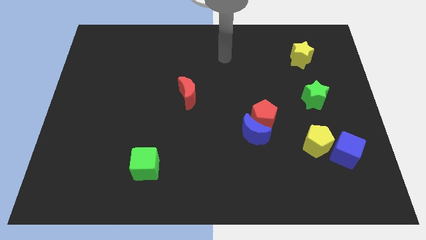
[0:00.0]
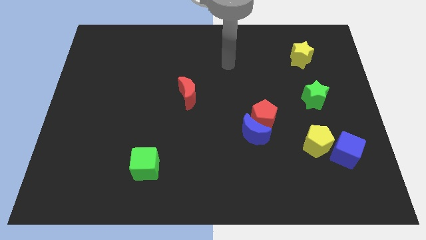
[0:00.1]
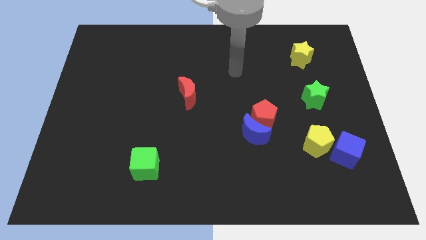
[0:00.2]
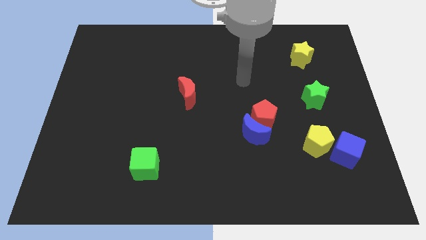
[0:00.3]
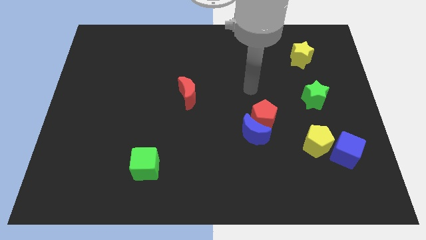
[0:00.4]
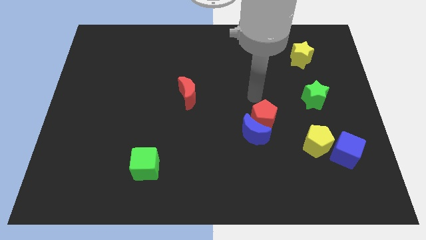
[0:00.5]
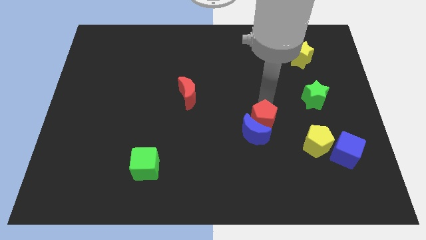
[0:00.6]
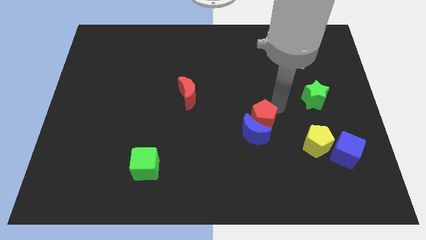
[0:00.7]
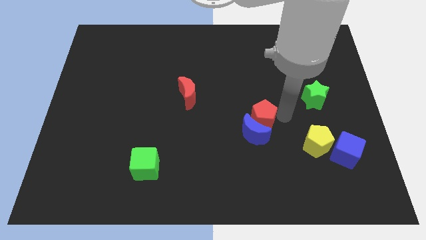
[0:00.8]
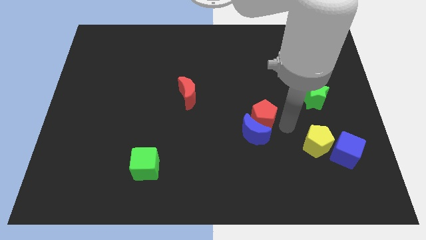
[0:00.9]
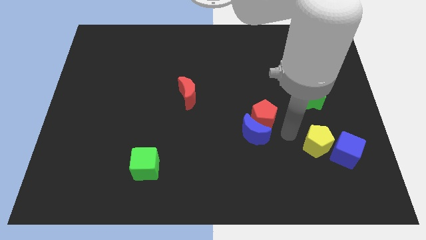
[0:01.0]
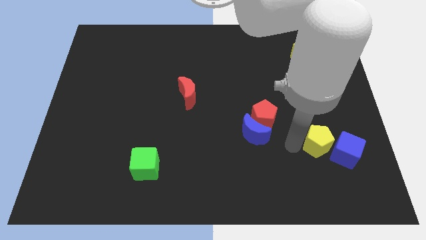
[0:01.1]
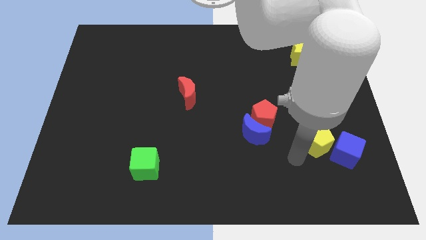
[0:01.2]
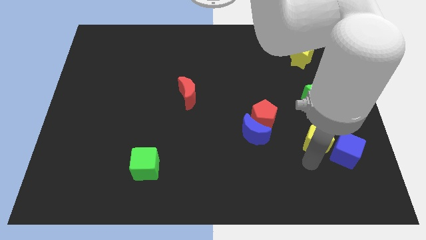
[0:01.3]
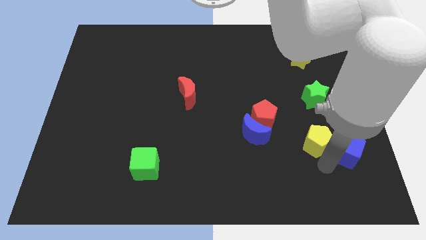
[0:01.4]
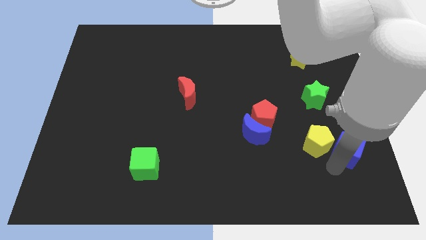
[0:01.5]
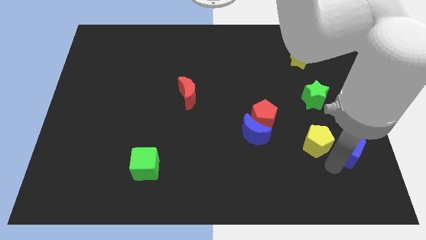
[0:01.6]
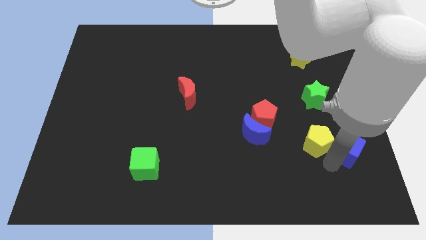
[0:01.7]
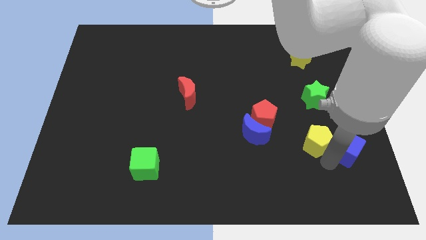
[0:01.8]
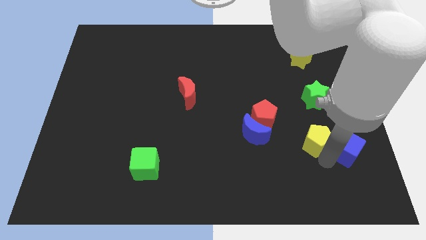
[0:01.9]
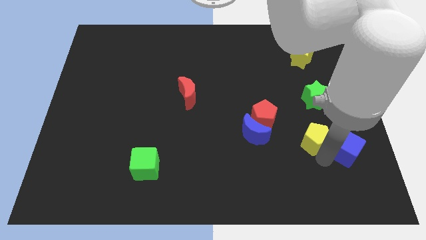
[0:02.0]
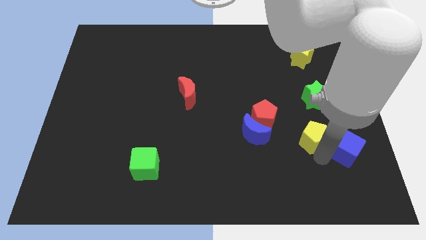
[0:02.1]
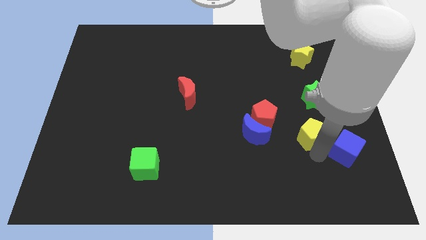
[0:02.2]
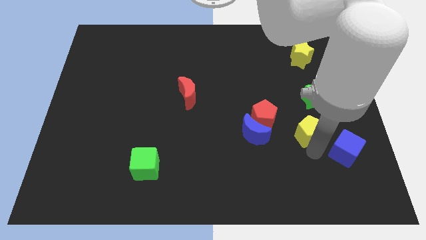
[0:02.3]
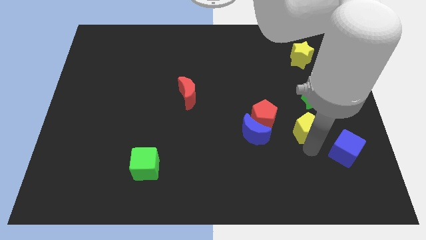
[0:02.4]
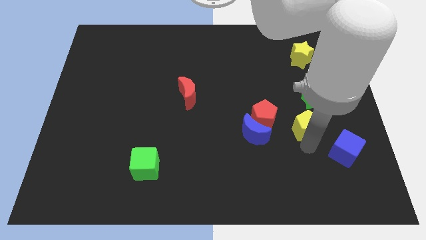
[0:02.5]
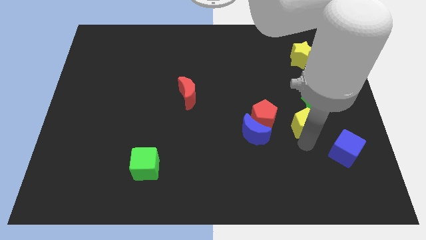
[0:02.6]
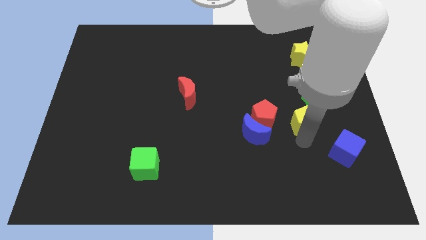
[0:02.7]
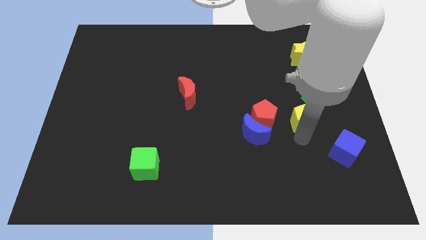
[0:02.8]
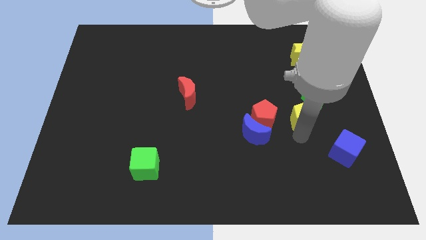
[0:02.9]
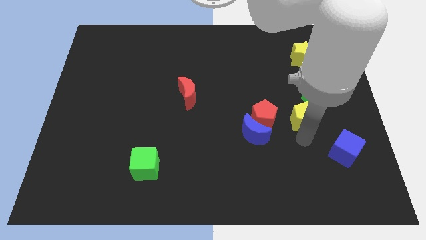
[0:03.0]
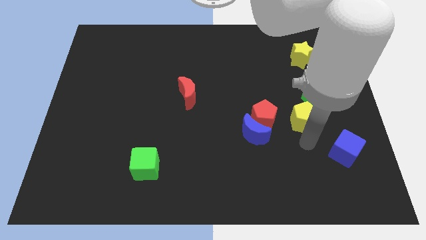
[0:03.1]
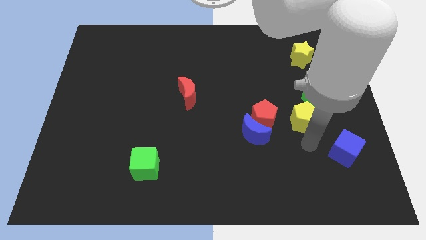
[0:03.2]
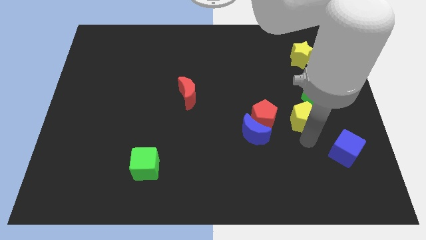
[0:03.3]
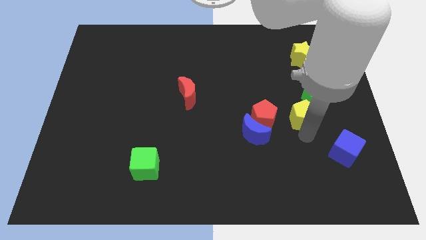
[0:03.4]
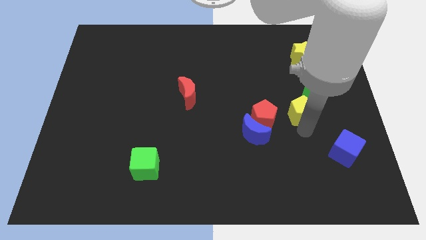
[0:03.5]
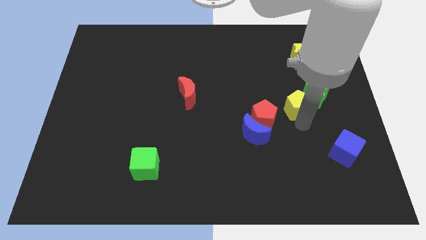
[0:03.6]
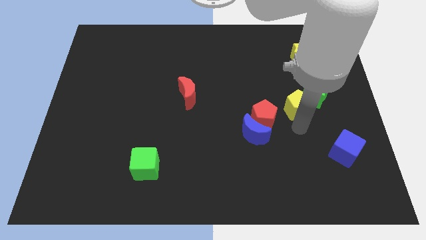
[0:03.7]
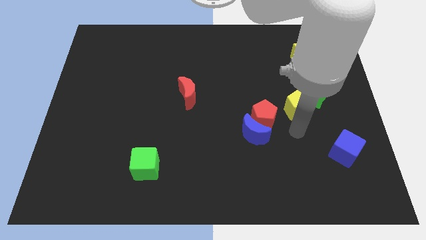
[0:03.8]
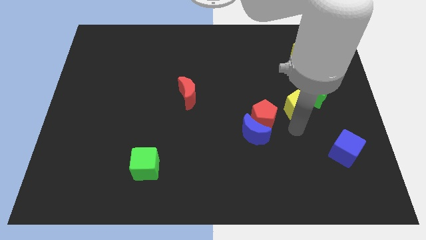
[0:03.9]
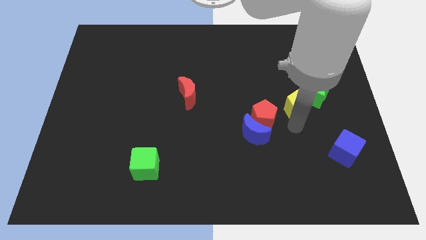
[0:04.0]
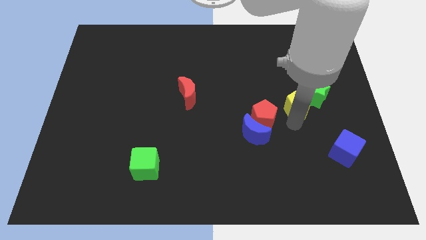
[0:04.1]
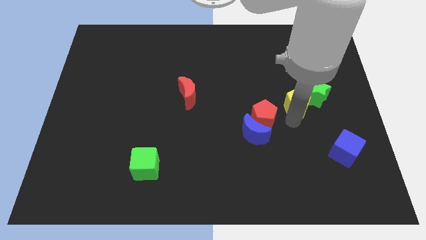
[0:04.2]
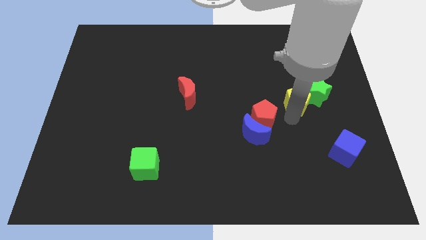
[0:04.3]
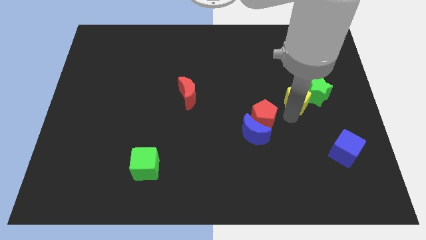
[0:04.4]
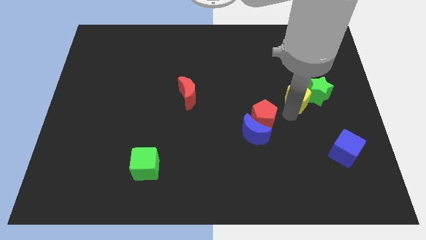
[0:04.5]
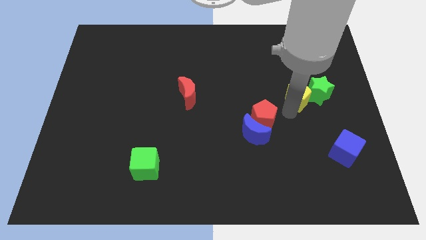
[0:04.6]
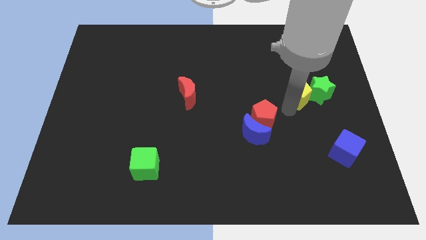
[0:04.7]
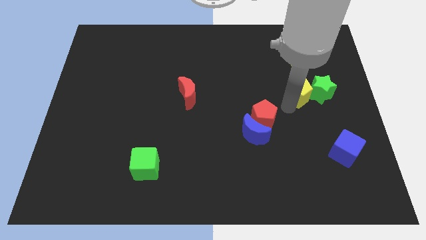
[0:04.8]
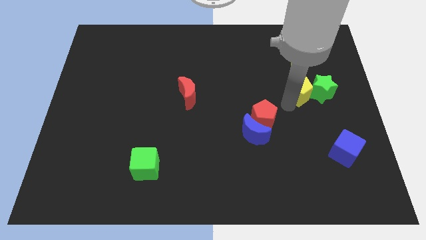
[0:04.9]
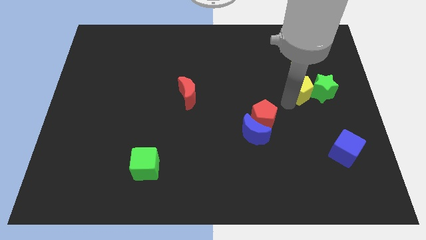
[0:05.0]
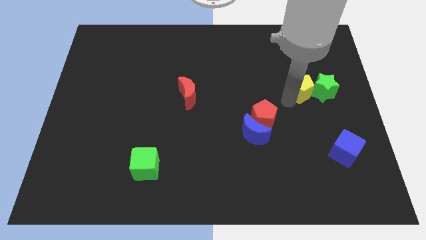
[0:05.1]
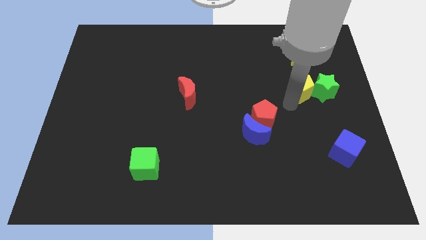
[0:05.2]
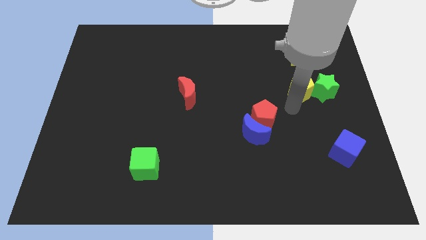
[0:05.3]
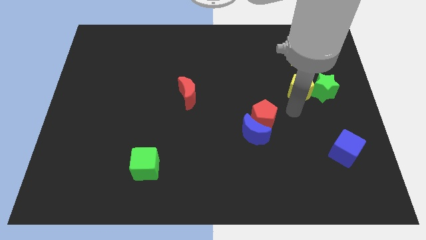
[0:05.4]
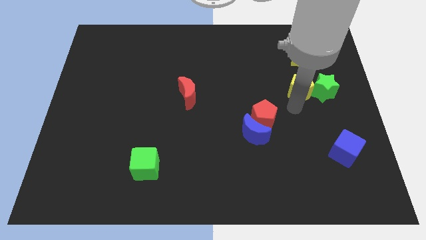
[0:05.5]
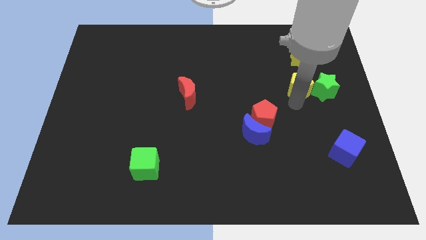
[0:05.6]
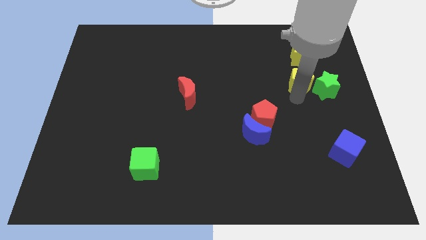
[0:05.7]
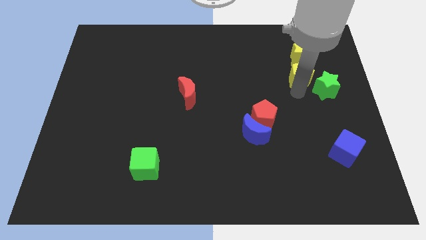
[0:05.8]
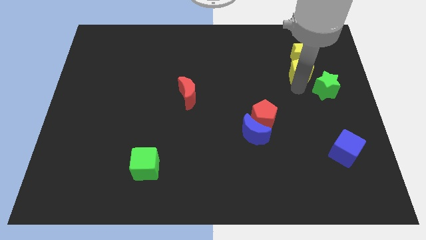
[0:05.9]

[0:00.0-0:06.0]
move the yellow pentagon to the yellow star

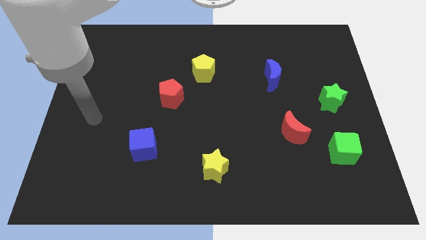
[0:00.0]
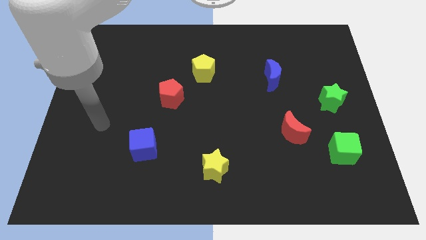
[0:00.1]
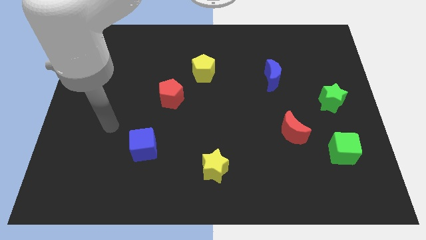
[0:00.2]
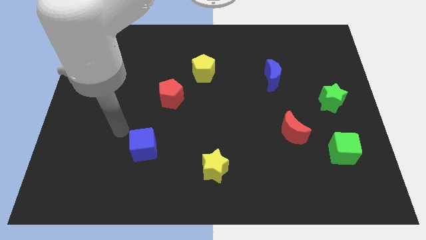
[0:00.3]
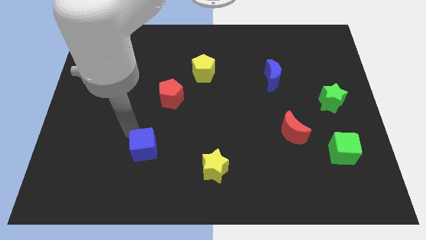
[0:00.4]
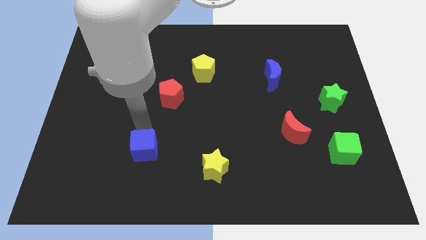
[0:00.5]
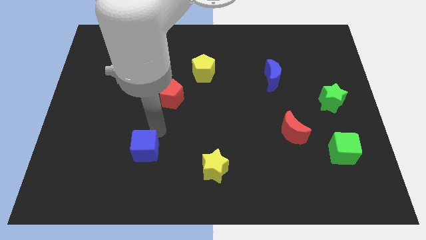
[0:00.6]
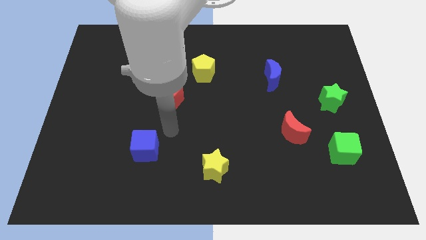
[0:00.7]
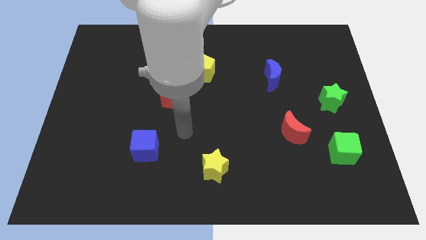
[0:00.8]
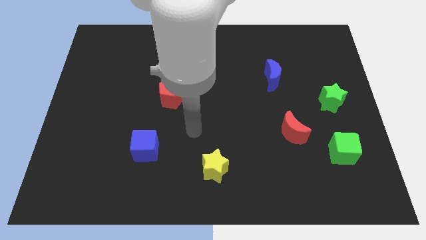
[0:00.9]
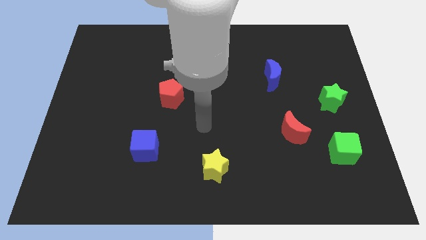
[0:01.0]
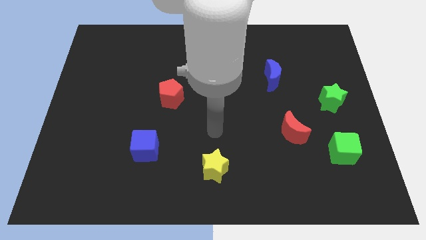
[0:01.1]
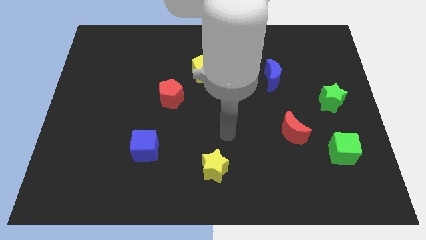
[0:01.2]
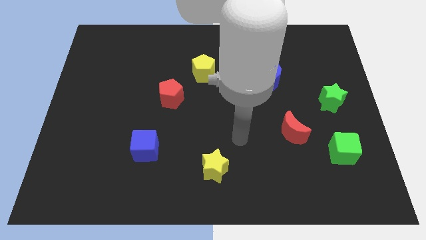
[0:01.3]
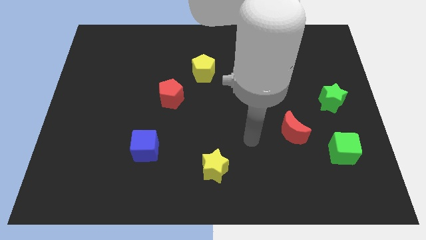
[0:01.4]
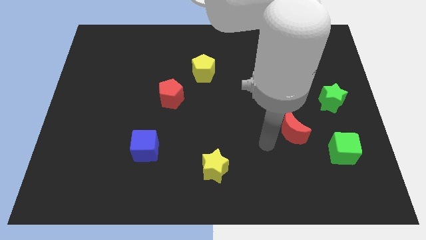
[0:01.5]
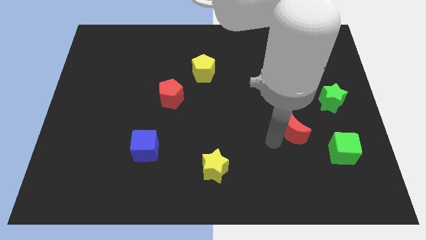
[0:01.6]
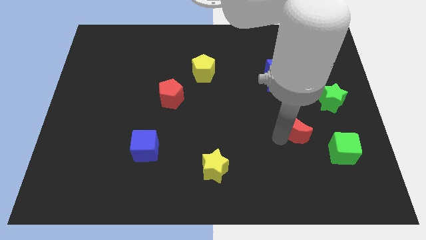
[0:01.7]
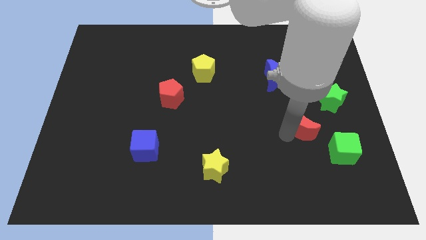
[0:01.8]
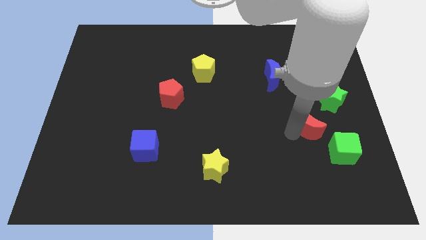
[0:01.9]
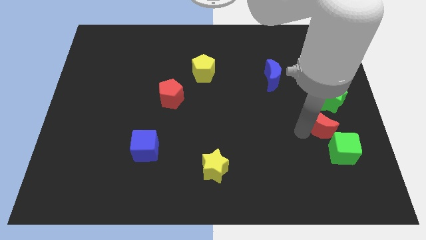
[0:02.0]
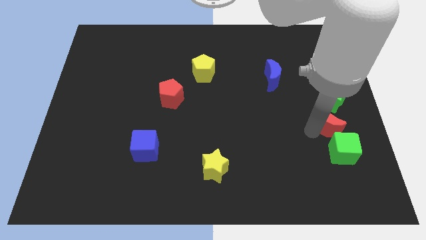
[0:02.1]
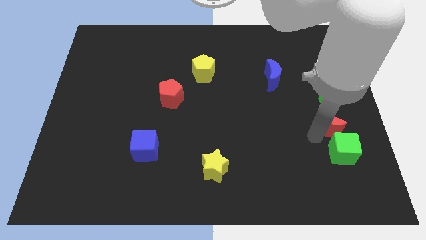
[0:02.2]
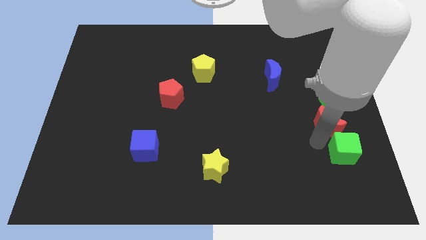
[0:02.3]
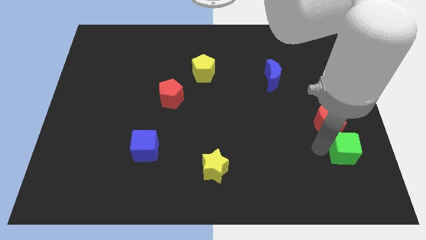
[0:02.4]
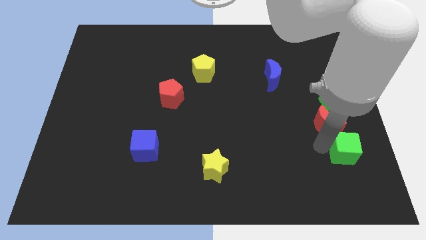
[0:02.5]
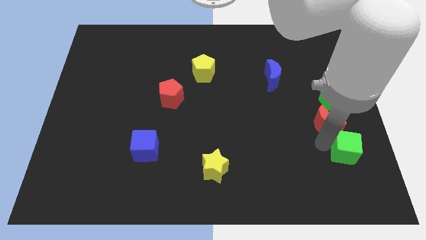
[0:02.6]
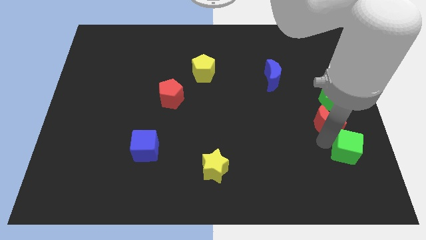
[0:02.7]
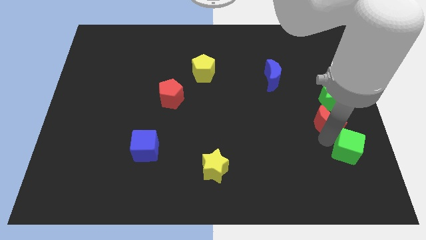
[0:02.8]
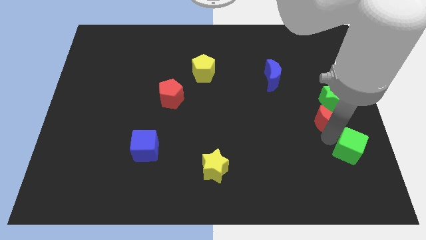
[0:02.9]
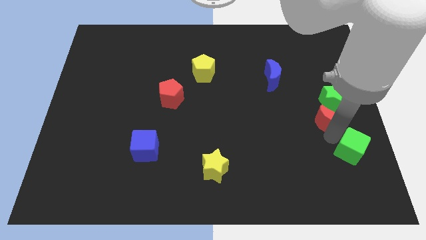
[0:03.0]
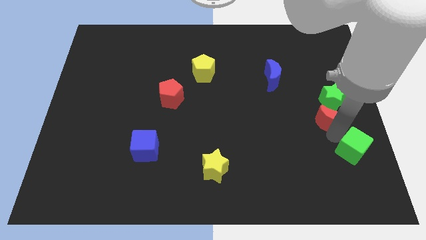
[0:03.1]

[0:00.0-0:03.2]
slide the red moon next to the green star
